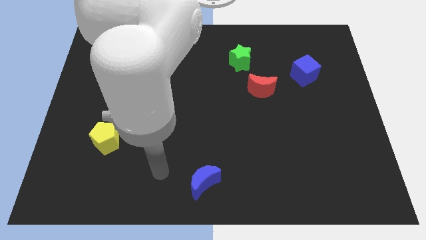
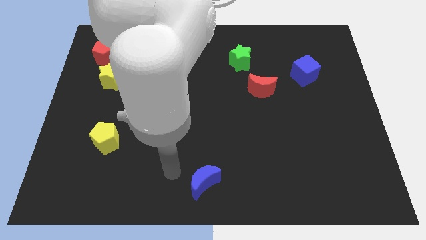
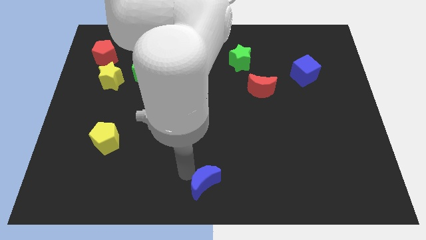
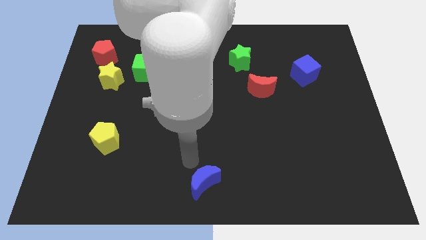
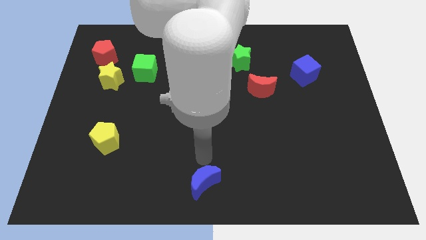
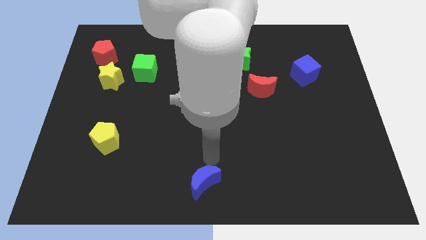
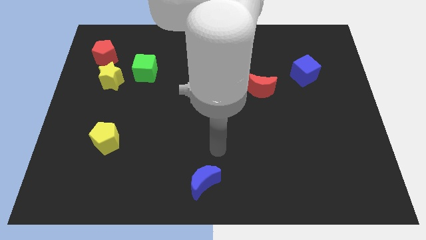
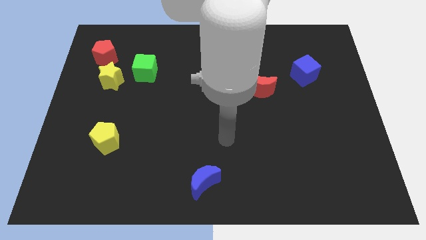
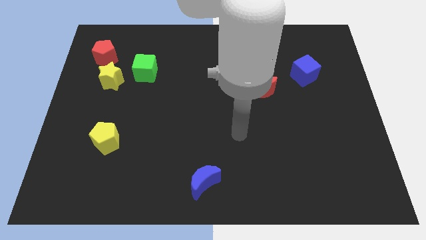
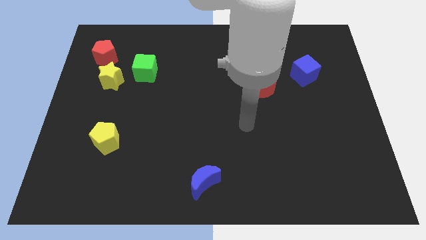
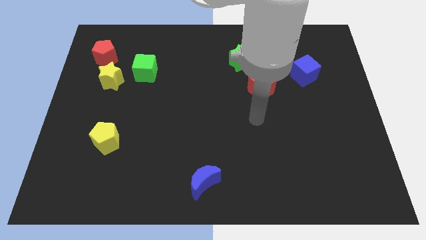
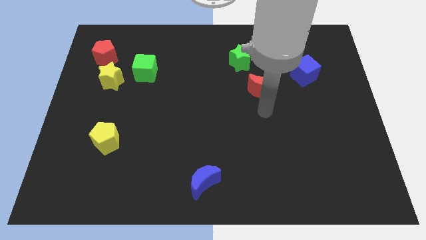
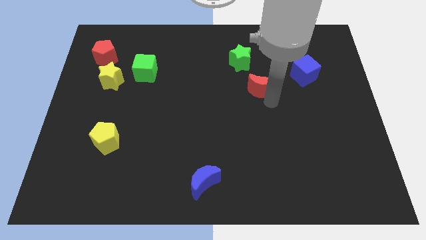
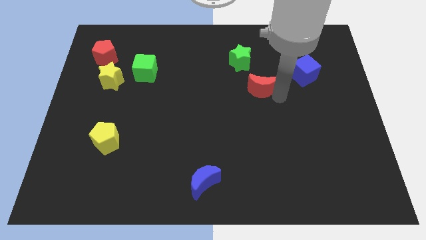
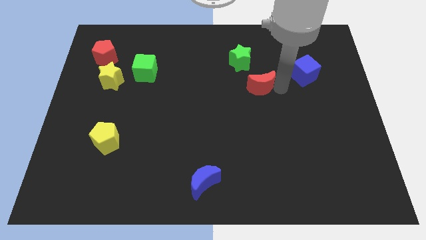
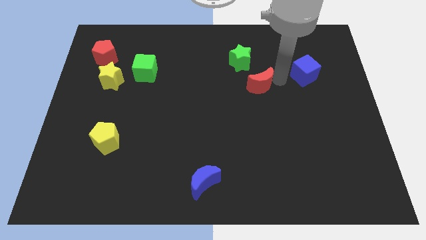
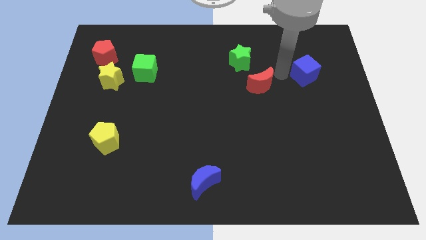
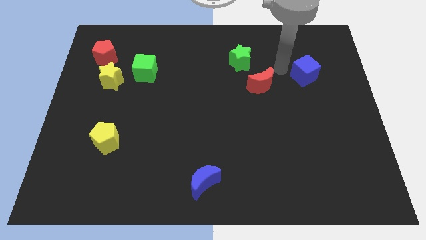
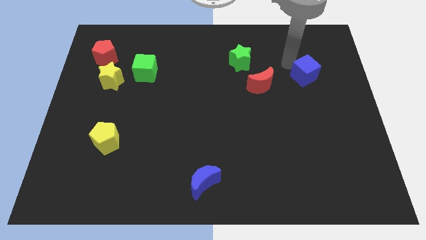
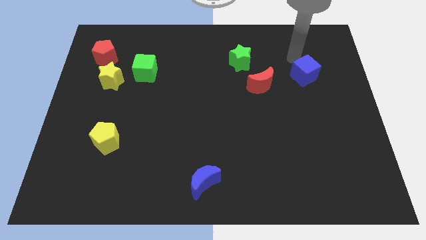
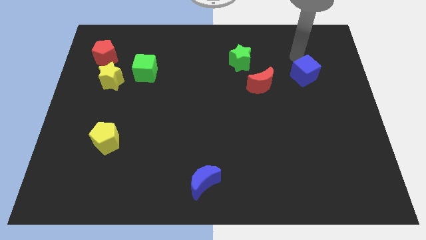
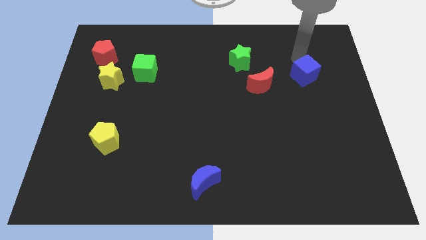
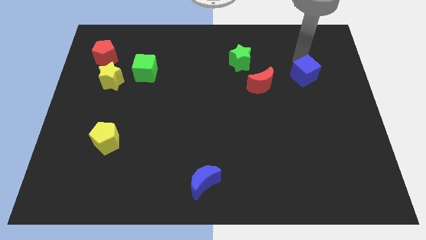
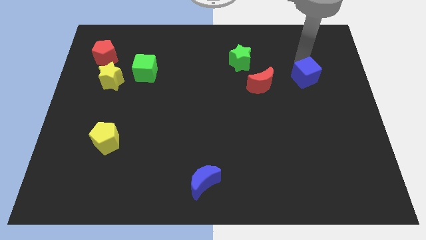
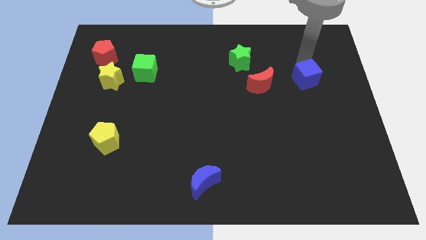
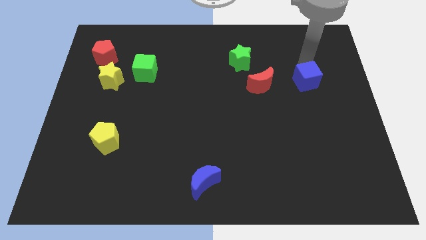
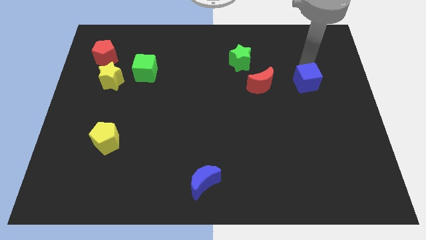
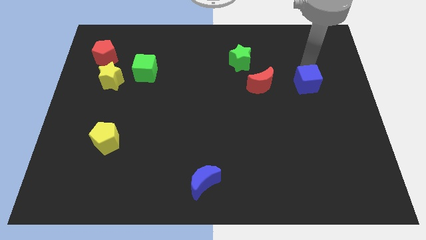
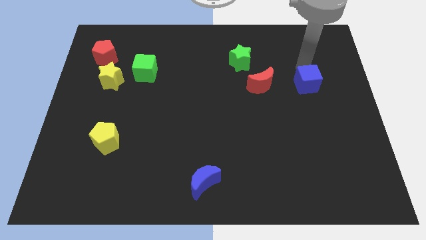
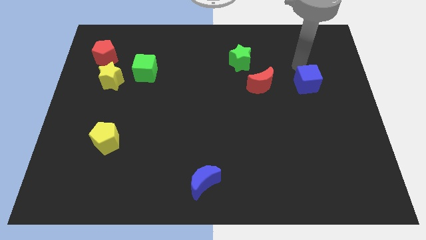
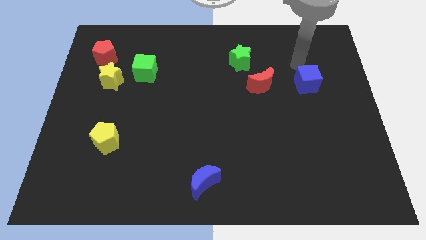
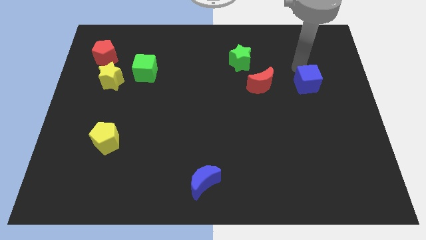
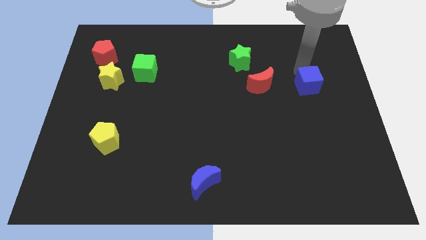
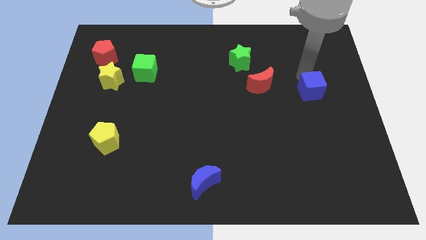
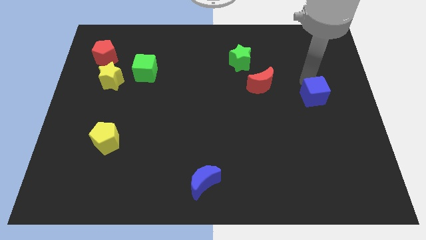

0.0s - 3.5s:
slightly move the blue cube downwards

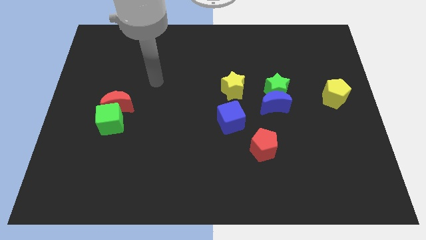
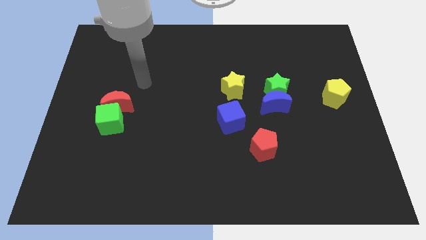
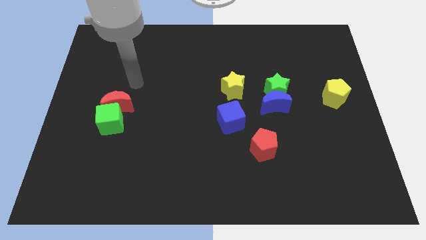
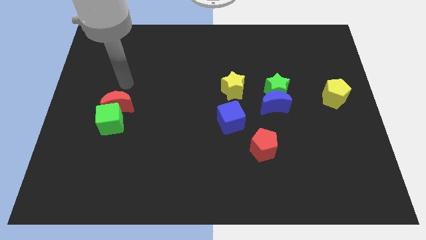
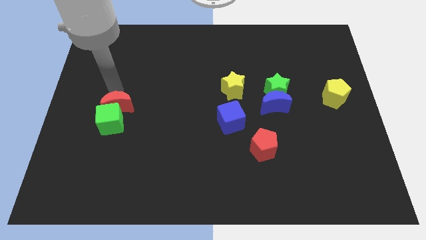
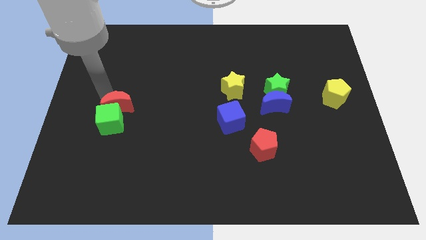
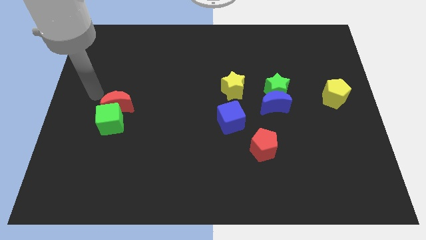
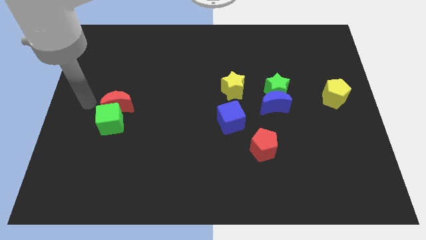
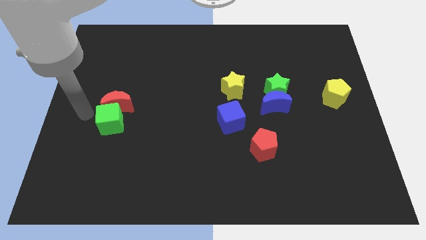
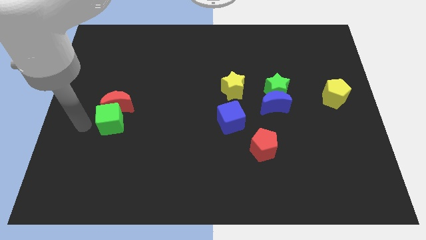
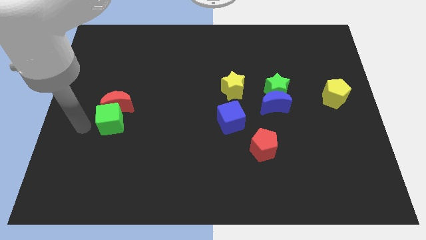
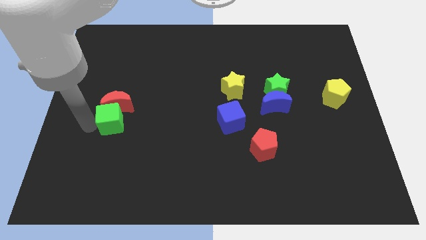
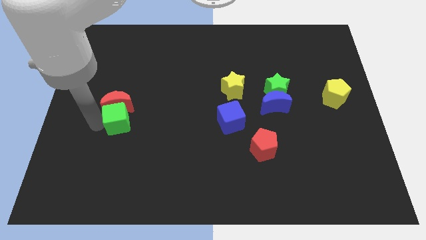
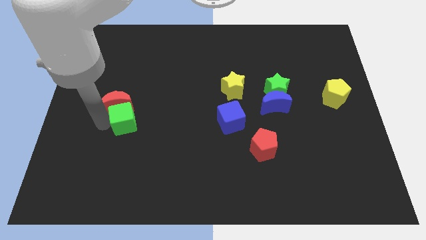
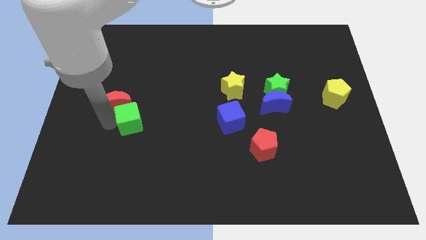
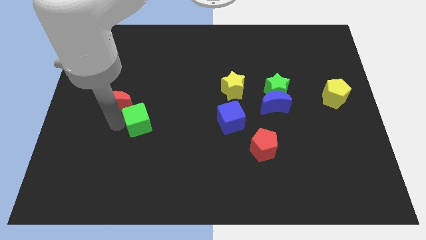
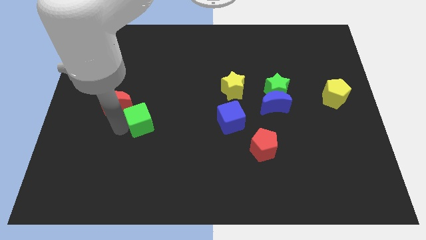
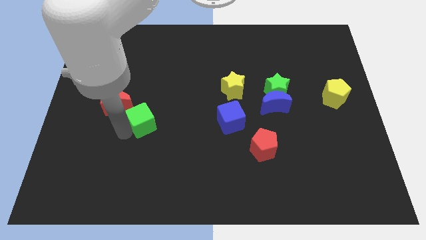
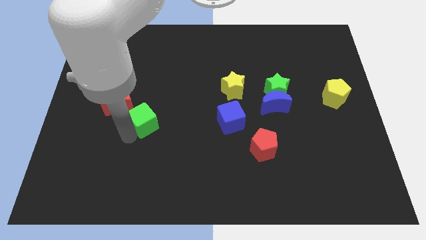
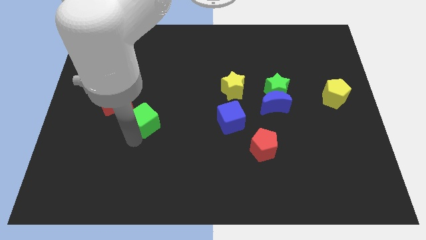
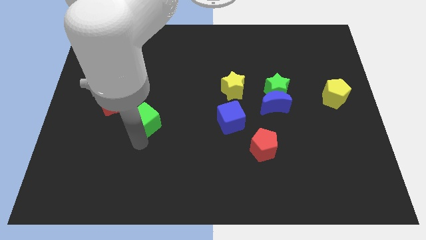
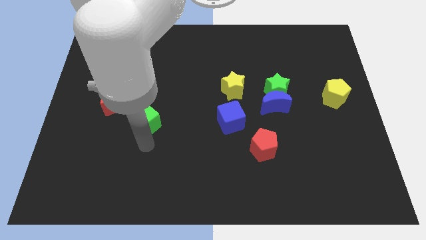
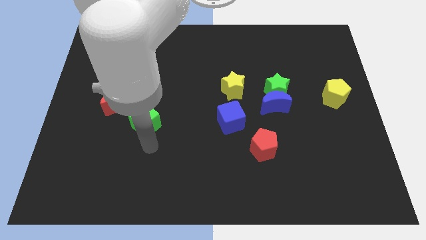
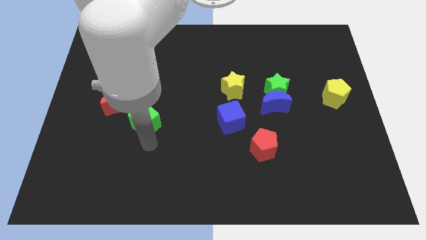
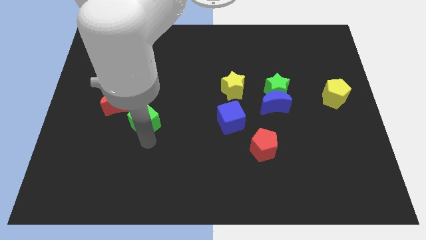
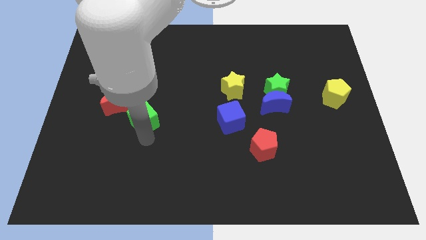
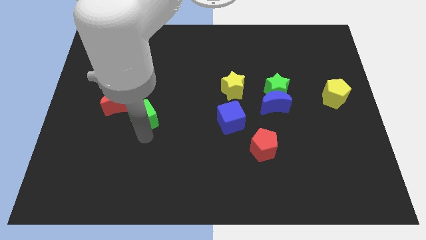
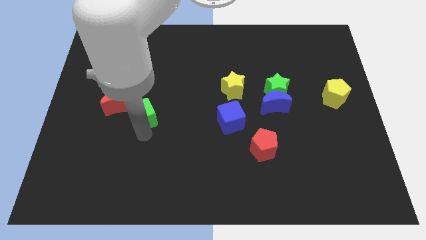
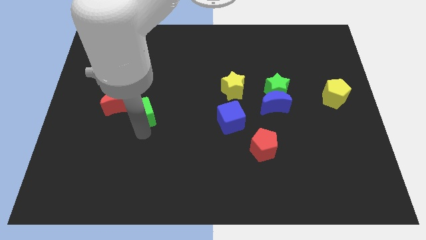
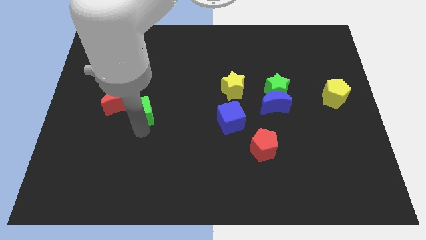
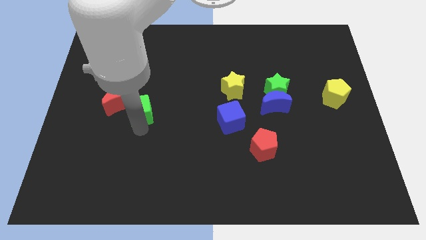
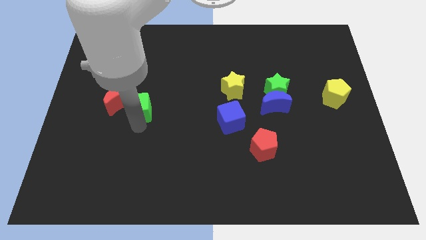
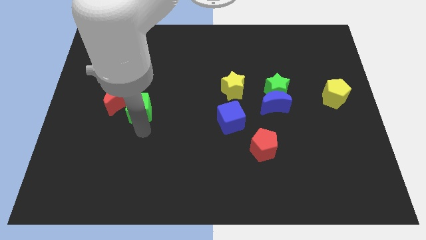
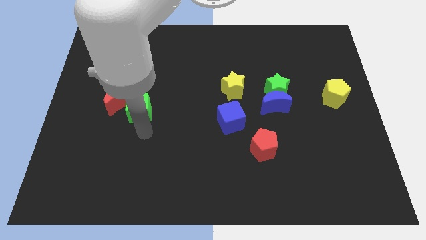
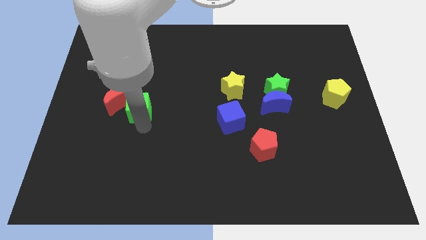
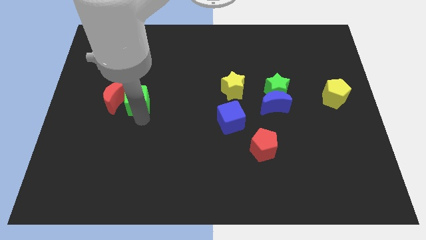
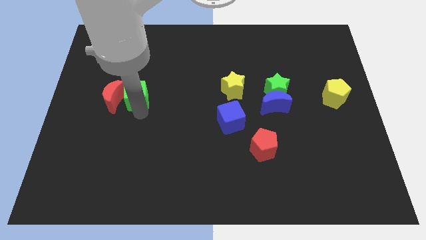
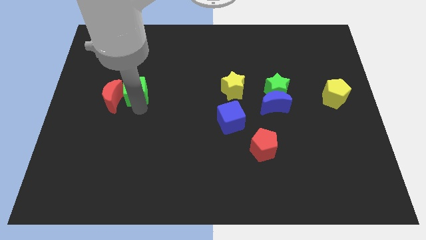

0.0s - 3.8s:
slide the green cube a bit upwards

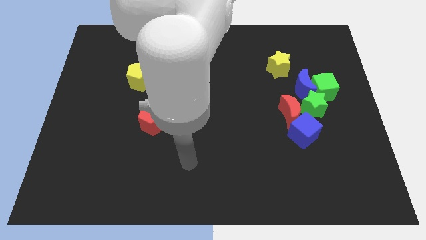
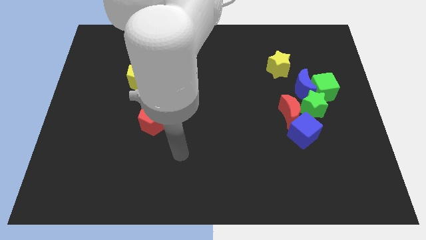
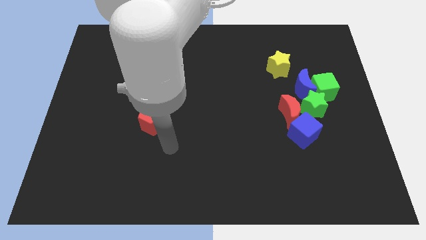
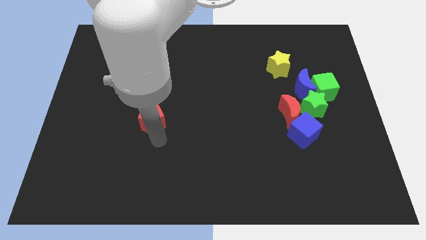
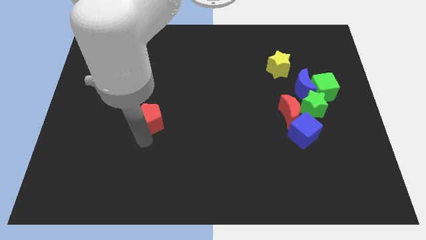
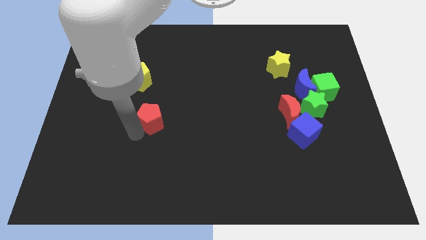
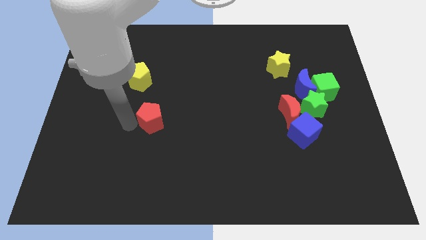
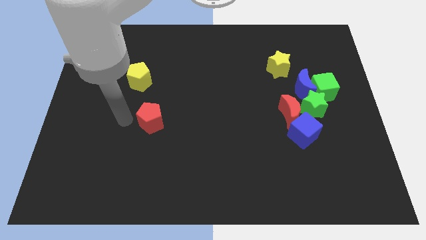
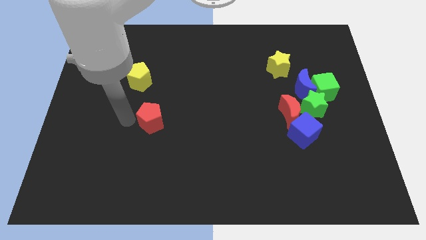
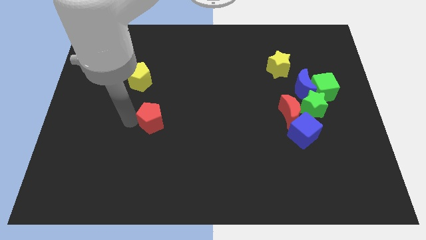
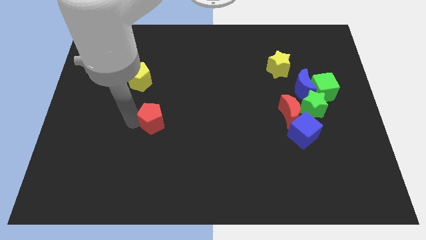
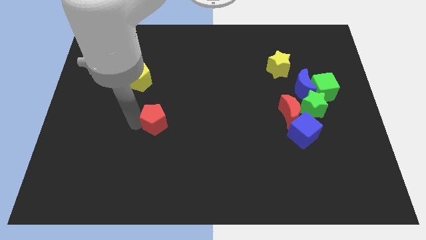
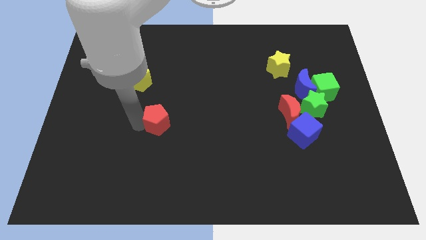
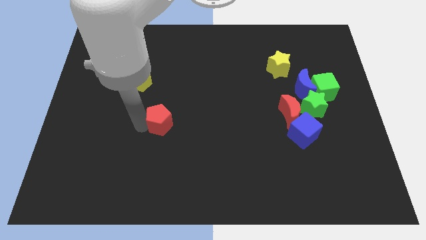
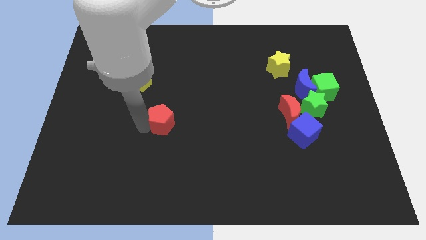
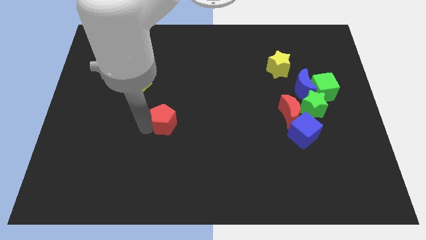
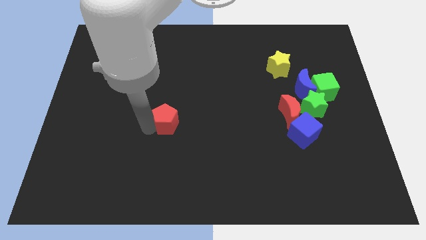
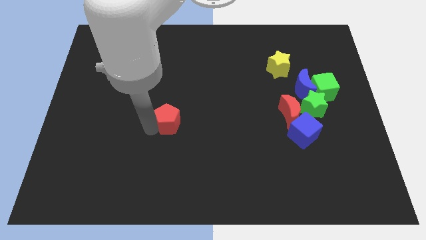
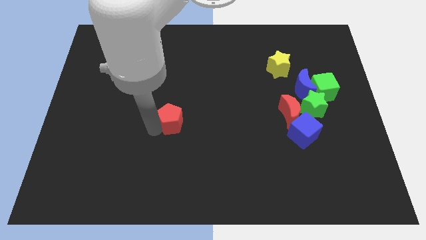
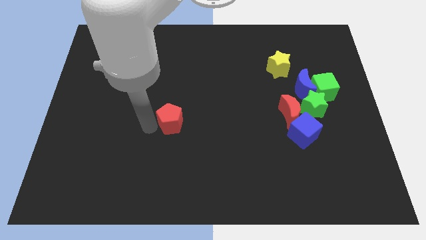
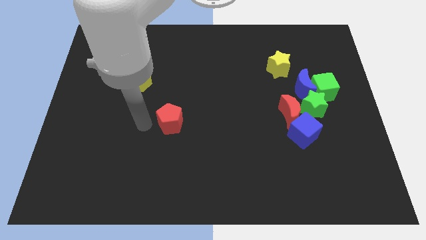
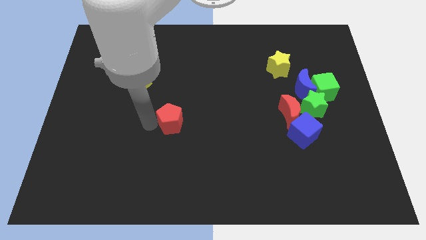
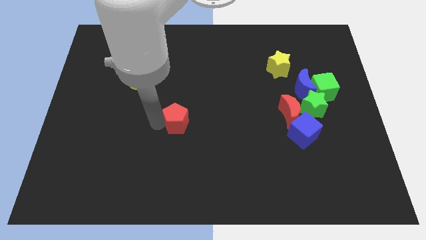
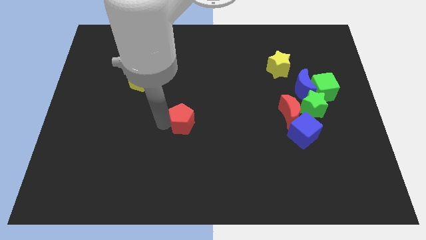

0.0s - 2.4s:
move the red pentagon to the right a little
